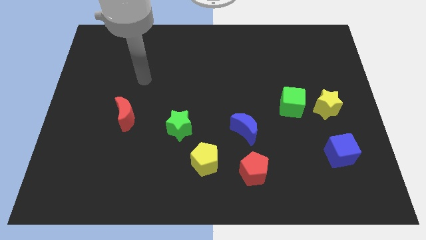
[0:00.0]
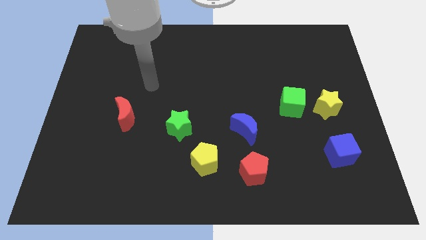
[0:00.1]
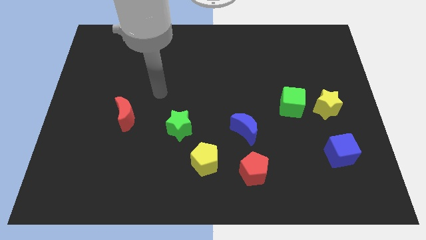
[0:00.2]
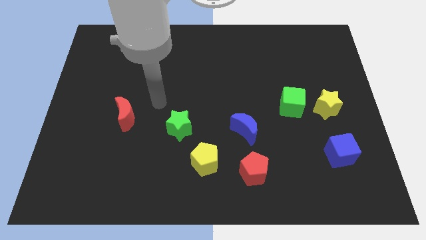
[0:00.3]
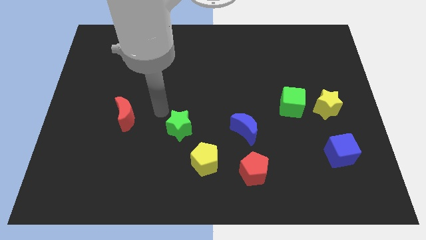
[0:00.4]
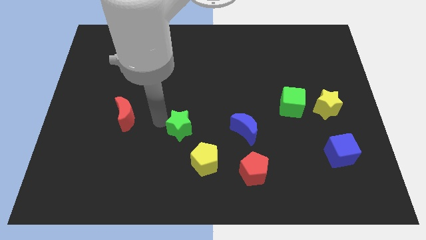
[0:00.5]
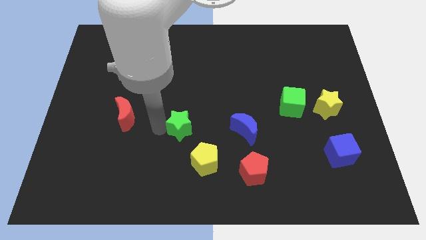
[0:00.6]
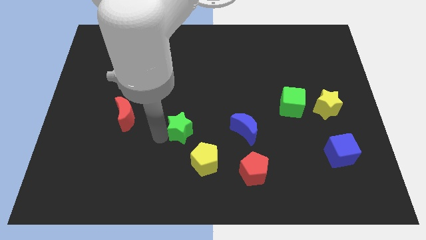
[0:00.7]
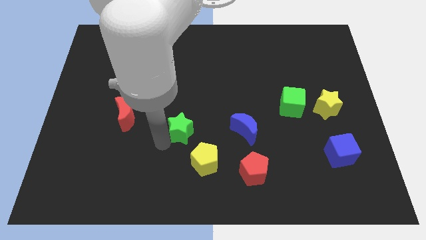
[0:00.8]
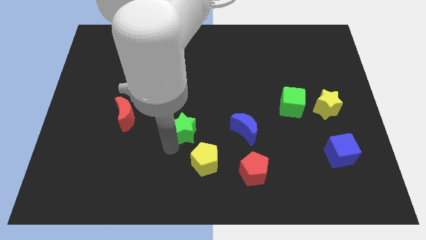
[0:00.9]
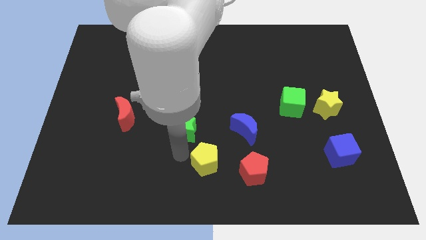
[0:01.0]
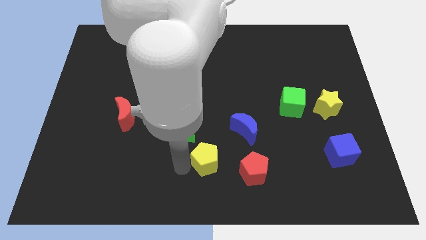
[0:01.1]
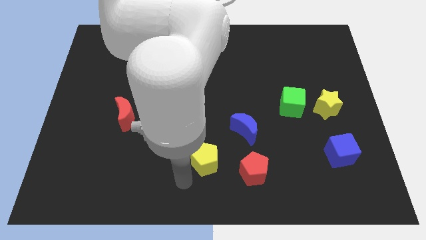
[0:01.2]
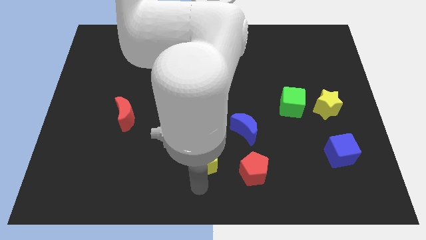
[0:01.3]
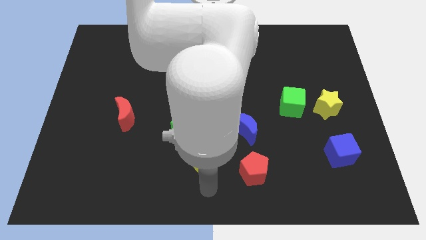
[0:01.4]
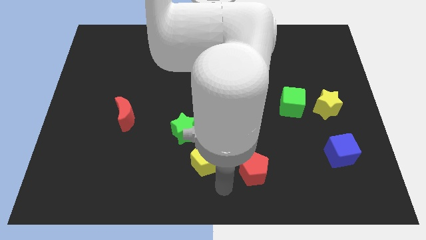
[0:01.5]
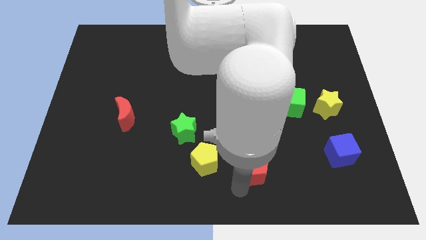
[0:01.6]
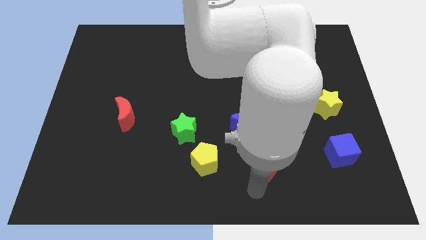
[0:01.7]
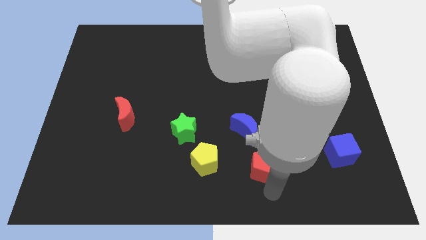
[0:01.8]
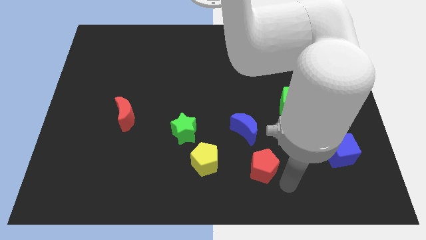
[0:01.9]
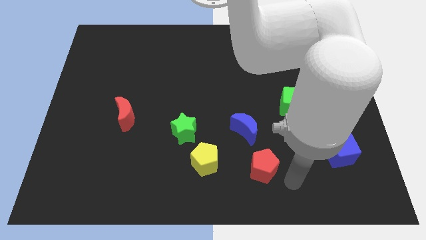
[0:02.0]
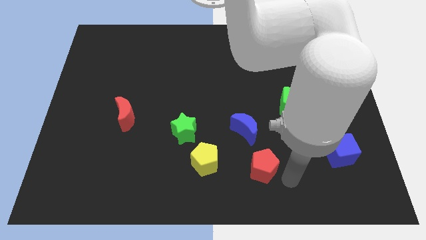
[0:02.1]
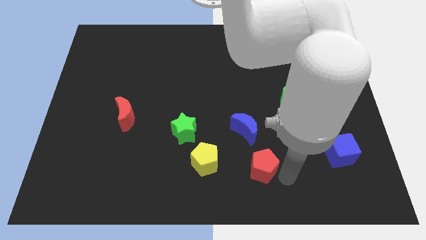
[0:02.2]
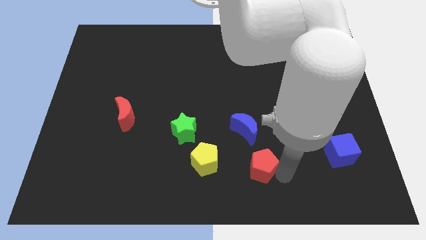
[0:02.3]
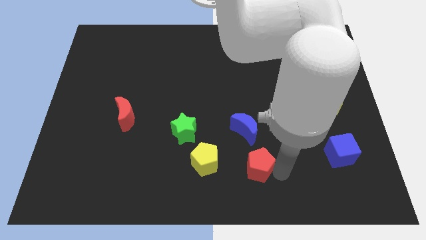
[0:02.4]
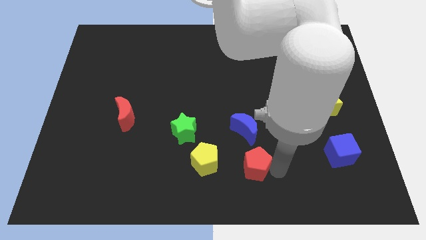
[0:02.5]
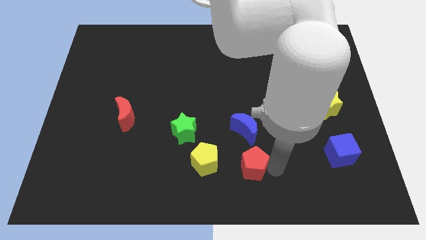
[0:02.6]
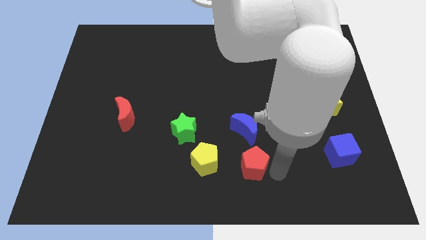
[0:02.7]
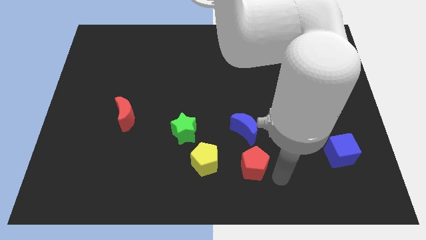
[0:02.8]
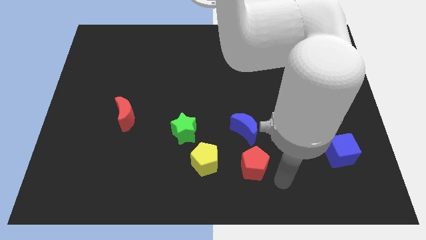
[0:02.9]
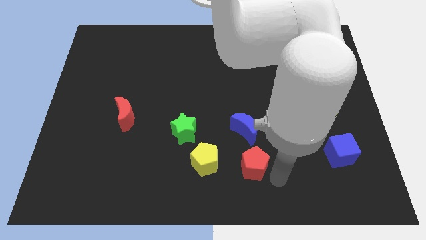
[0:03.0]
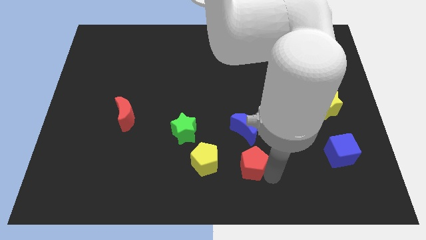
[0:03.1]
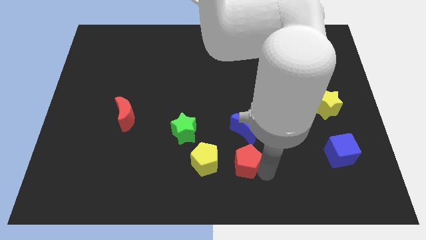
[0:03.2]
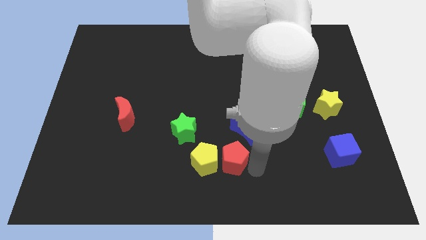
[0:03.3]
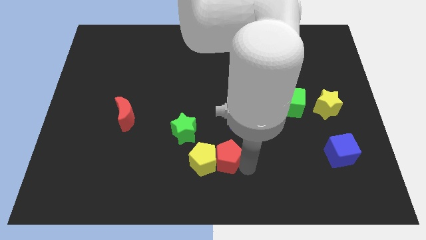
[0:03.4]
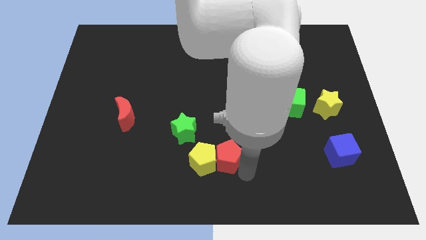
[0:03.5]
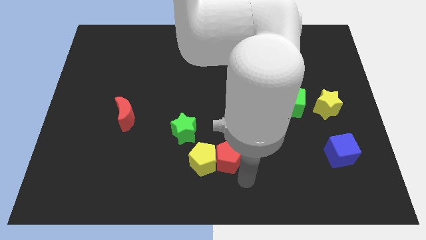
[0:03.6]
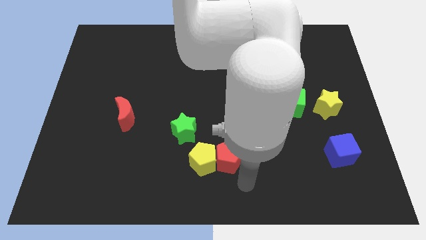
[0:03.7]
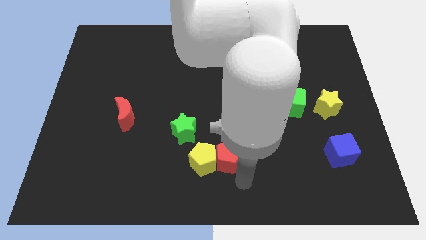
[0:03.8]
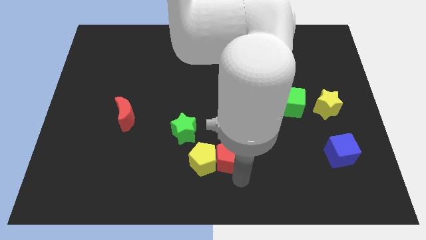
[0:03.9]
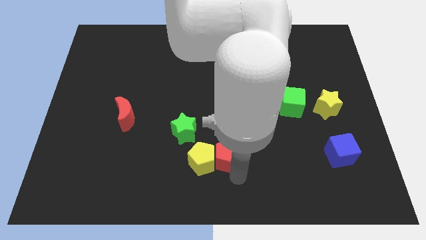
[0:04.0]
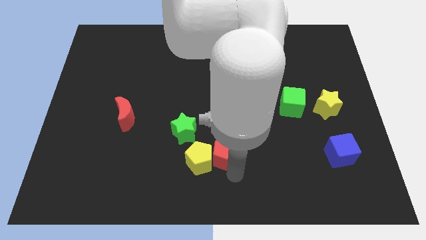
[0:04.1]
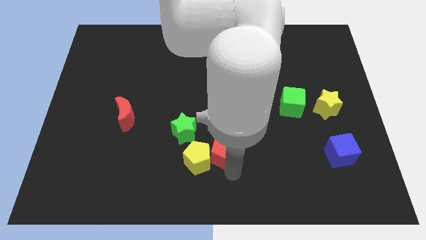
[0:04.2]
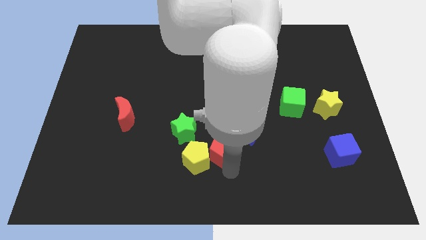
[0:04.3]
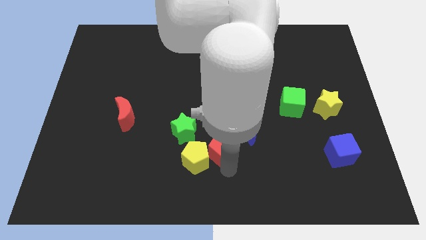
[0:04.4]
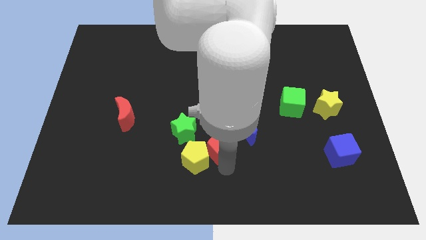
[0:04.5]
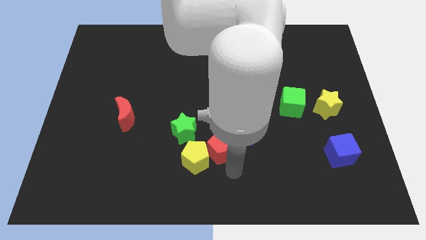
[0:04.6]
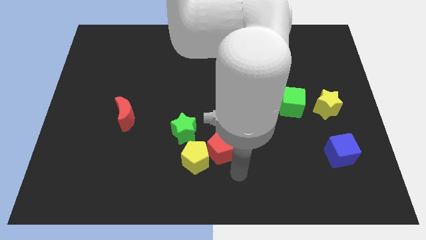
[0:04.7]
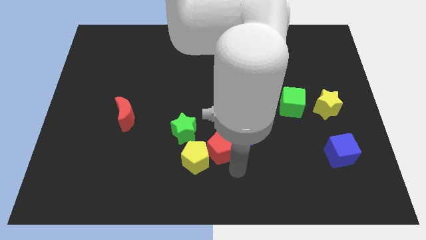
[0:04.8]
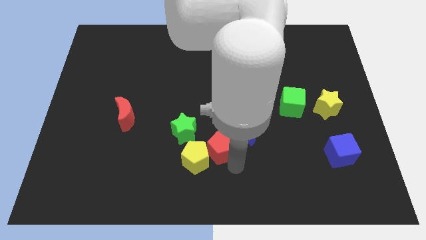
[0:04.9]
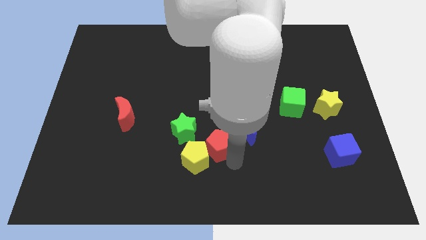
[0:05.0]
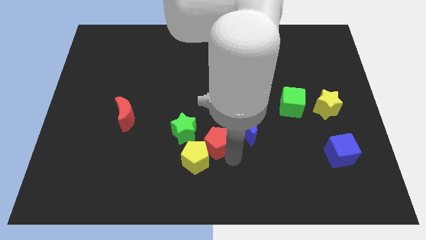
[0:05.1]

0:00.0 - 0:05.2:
slide the red pentagon to the top side of the yellow pentagon

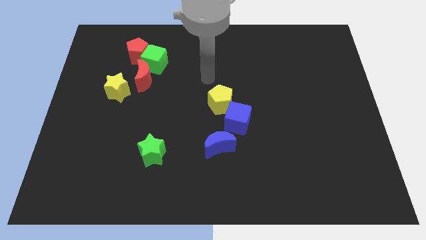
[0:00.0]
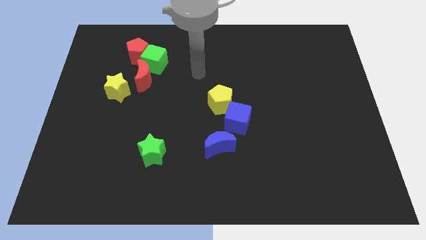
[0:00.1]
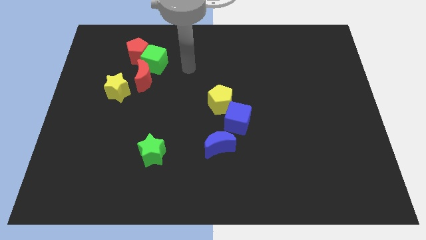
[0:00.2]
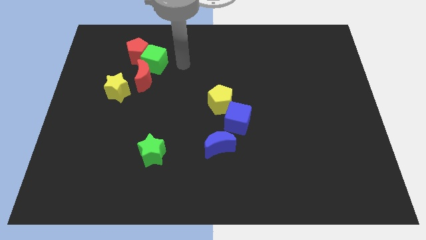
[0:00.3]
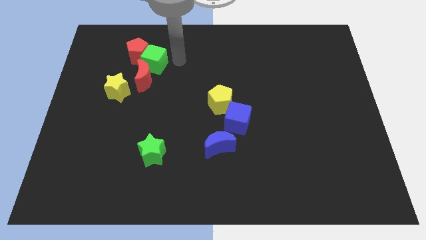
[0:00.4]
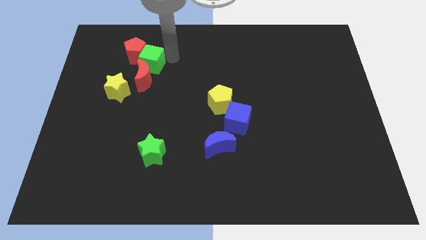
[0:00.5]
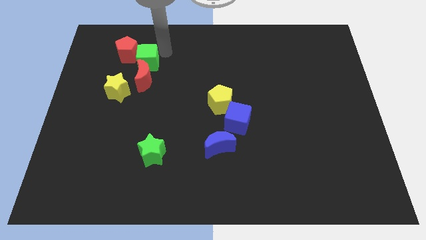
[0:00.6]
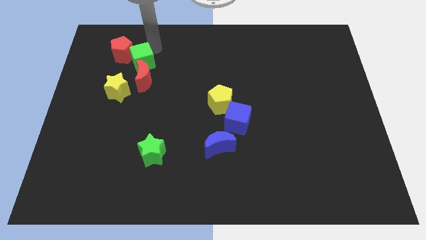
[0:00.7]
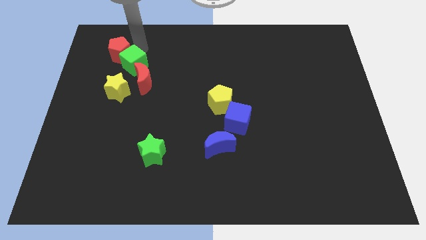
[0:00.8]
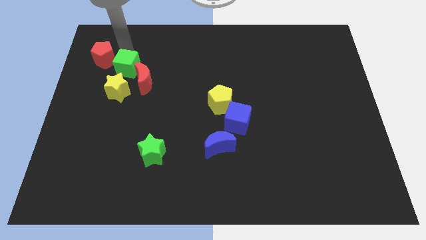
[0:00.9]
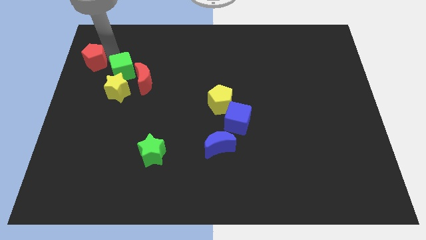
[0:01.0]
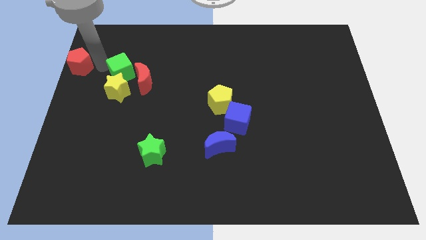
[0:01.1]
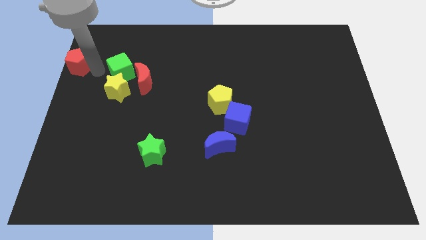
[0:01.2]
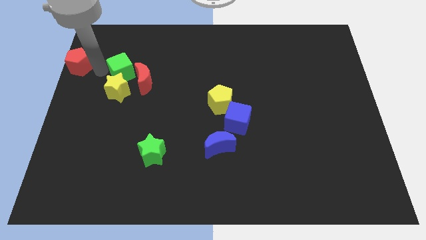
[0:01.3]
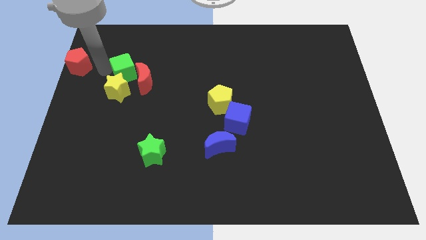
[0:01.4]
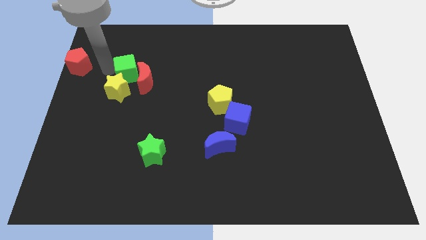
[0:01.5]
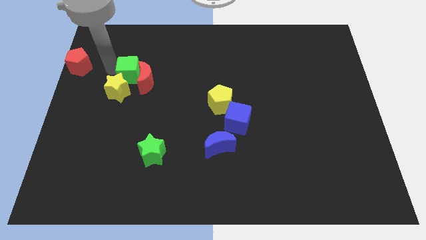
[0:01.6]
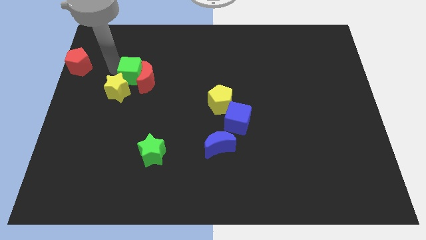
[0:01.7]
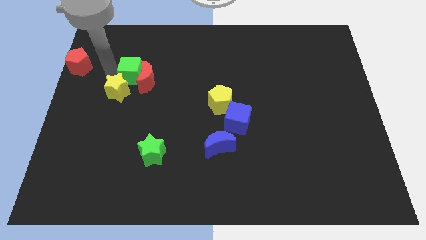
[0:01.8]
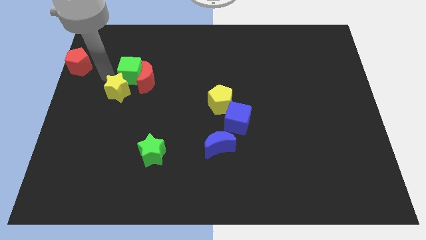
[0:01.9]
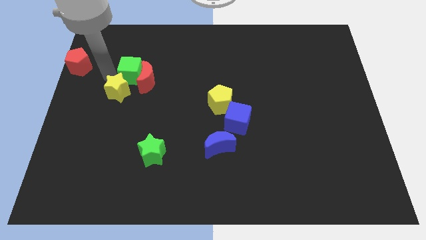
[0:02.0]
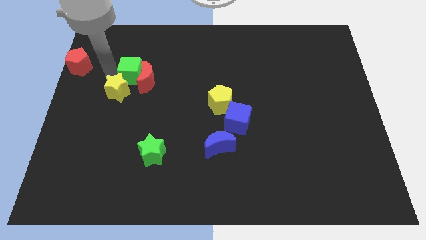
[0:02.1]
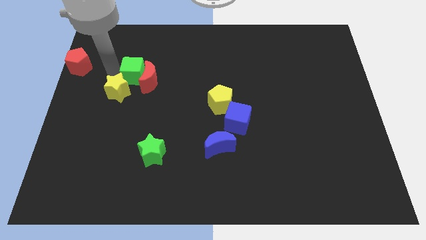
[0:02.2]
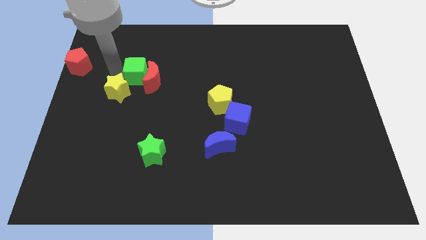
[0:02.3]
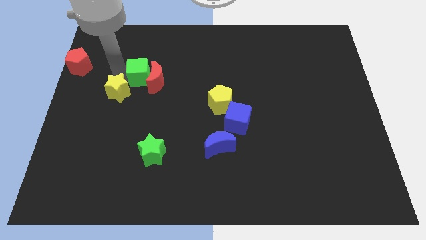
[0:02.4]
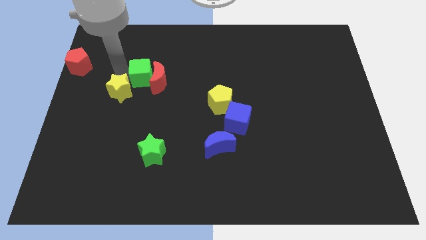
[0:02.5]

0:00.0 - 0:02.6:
push the green cube to the right of the yellow star
